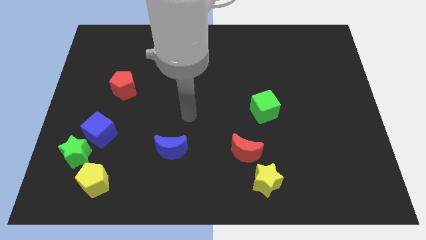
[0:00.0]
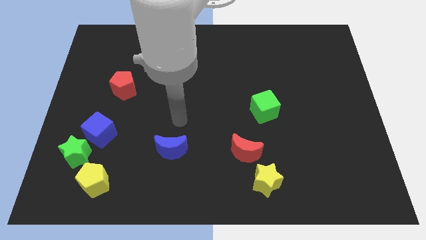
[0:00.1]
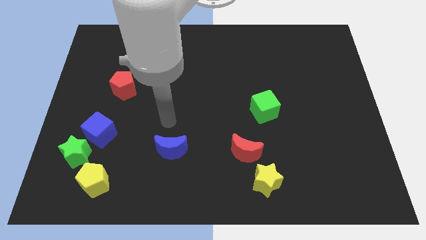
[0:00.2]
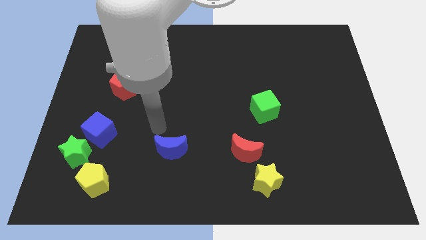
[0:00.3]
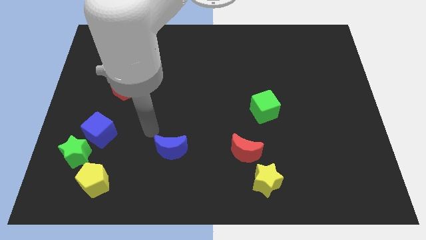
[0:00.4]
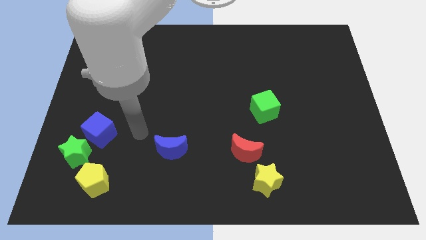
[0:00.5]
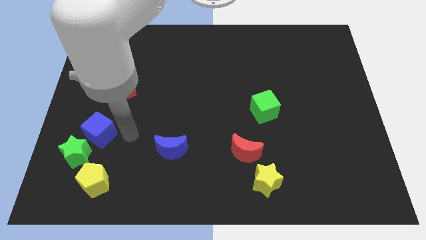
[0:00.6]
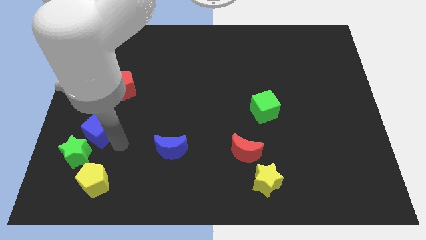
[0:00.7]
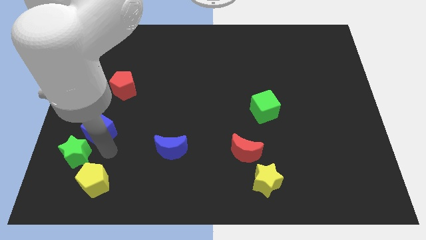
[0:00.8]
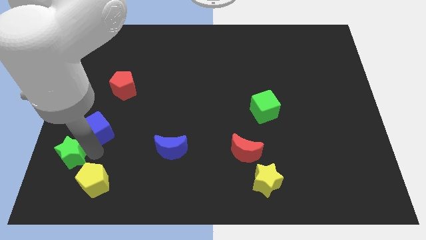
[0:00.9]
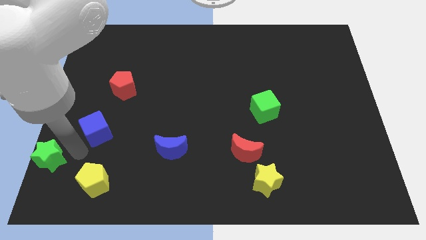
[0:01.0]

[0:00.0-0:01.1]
move the blue cube away from the green star

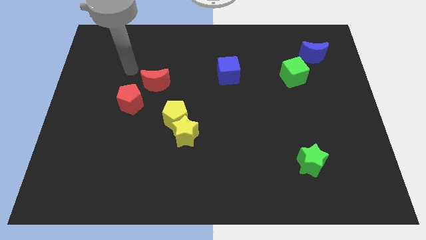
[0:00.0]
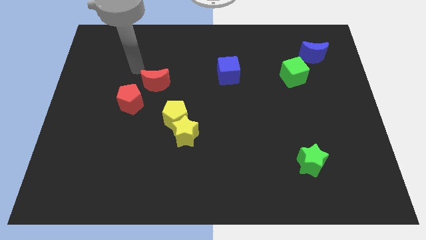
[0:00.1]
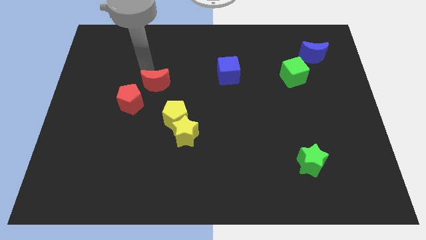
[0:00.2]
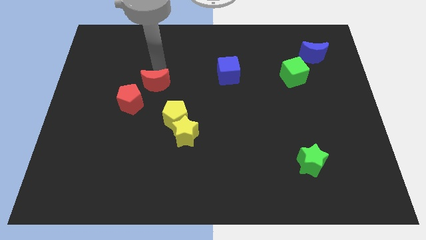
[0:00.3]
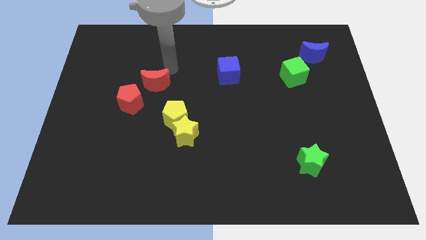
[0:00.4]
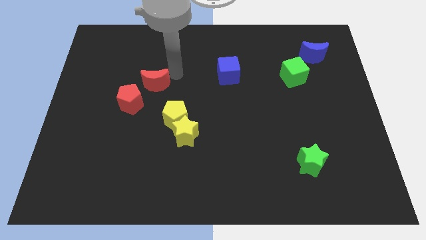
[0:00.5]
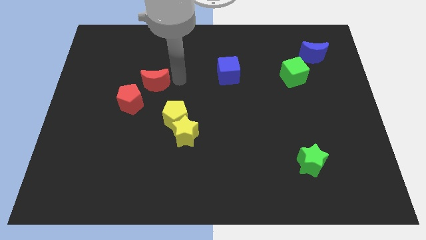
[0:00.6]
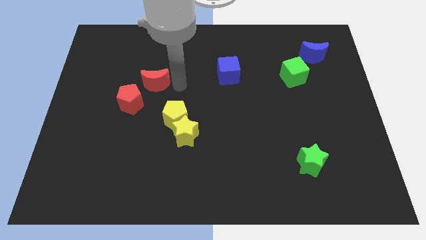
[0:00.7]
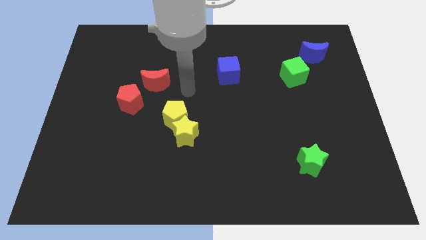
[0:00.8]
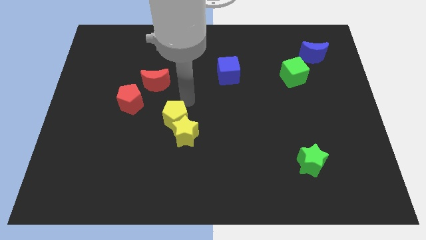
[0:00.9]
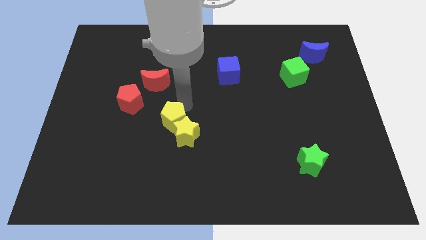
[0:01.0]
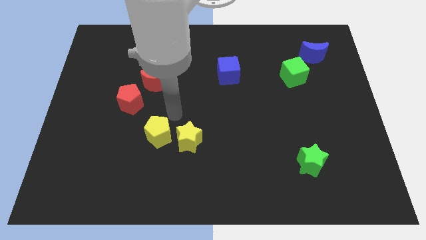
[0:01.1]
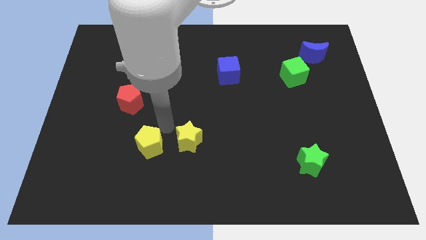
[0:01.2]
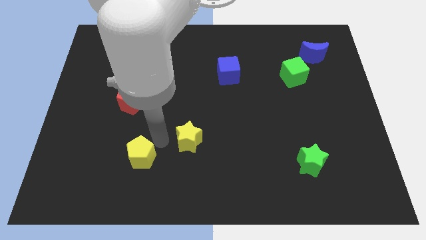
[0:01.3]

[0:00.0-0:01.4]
separate the yellow star from the yellow pentagon

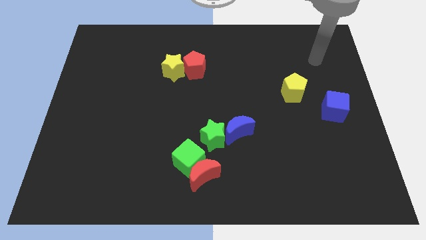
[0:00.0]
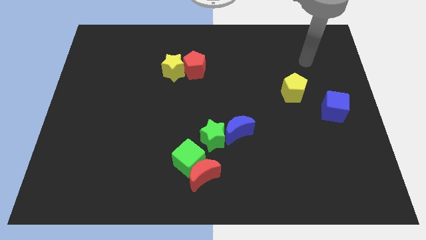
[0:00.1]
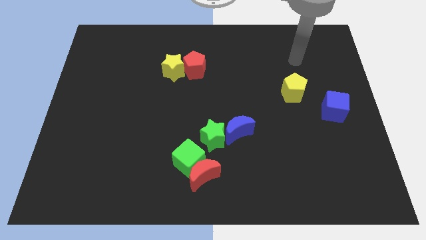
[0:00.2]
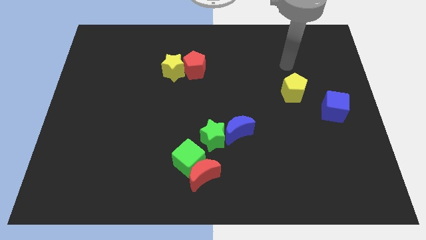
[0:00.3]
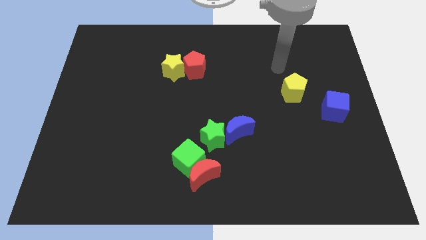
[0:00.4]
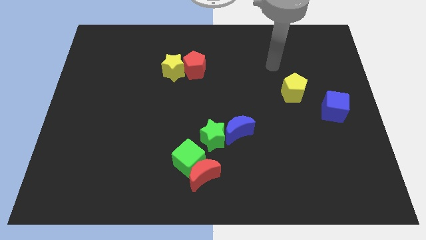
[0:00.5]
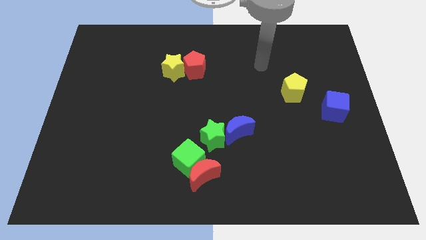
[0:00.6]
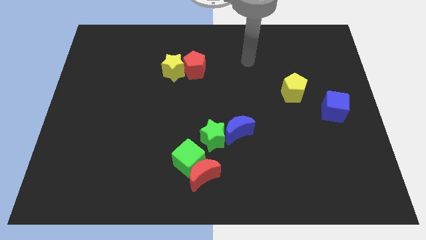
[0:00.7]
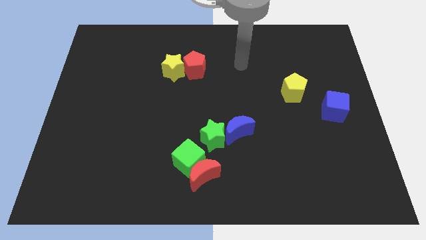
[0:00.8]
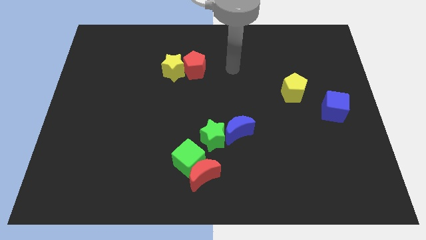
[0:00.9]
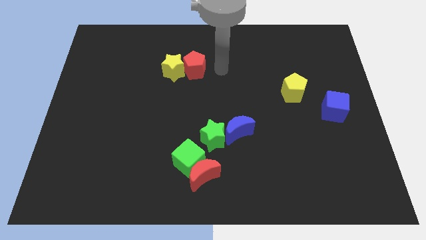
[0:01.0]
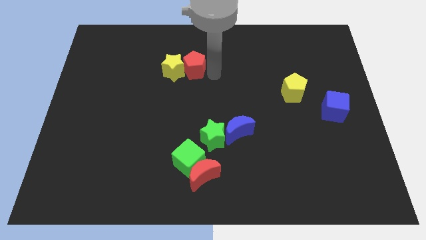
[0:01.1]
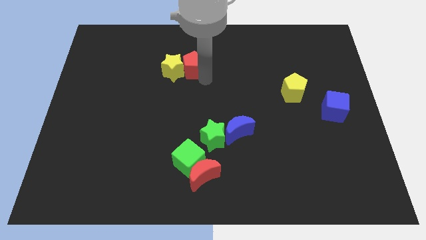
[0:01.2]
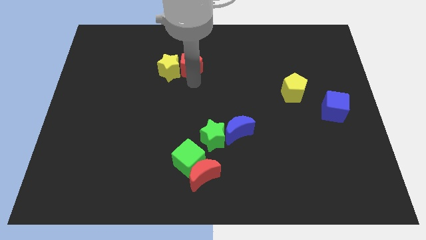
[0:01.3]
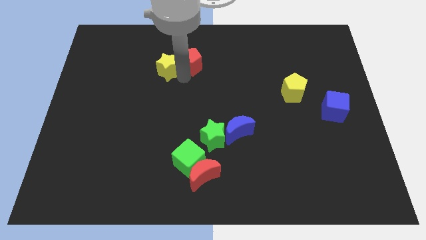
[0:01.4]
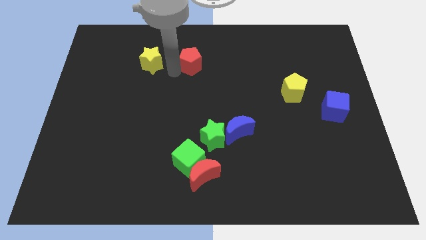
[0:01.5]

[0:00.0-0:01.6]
separate the red pentagon from the yellow star

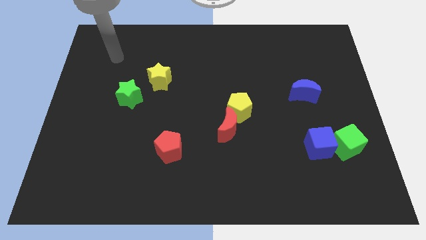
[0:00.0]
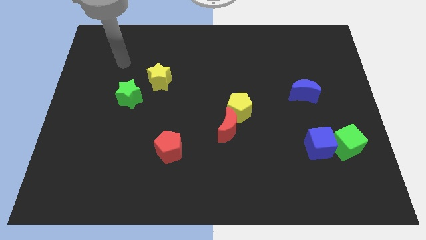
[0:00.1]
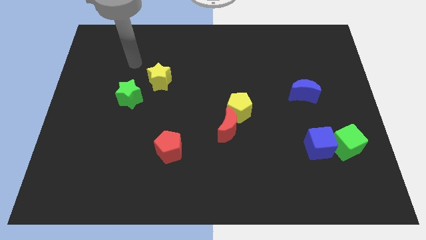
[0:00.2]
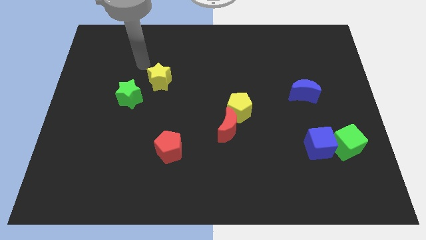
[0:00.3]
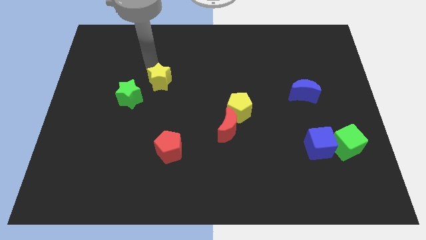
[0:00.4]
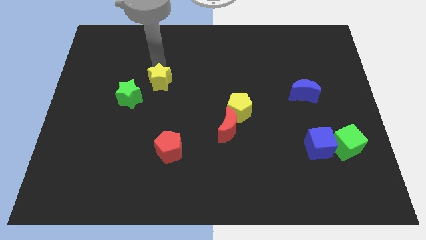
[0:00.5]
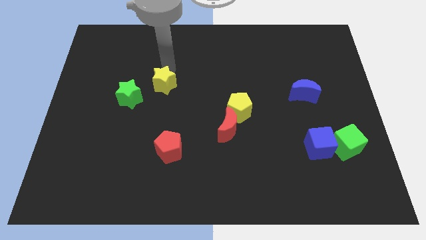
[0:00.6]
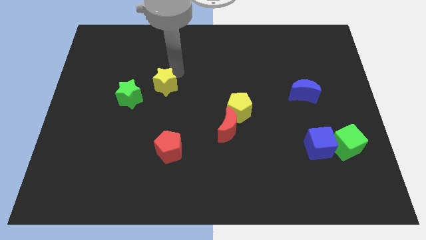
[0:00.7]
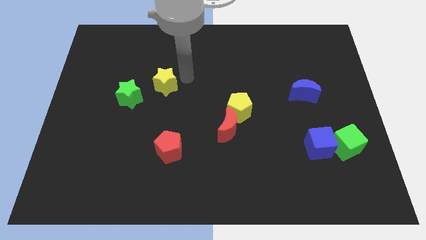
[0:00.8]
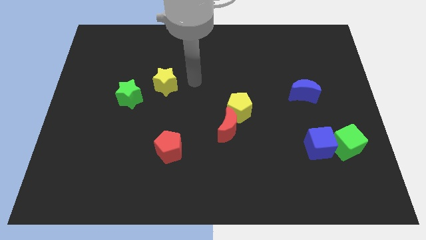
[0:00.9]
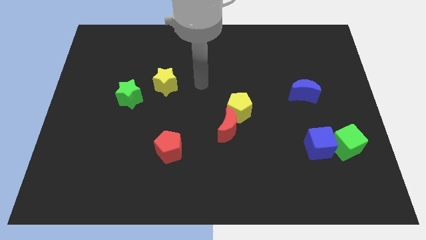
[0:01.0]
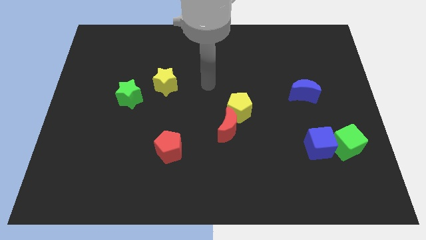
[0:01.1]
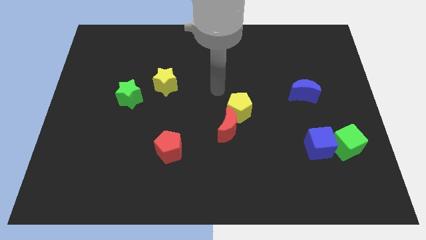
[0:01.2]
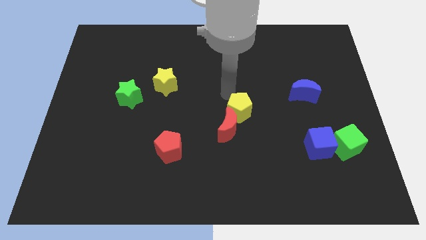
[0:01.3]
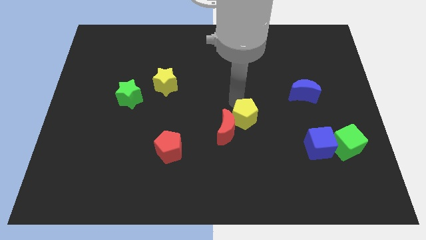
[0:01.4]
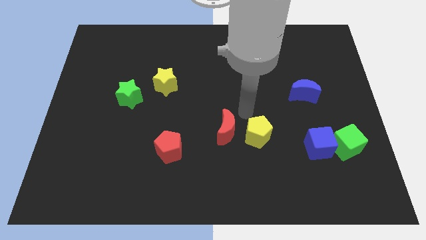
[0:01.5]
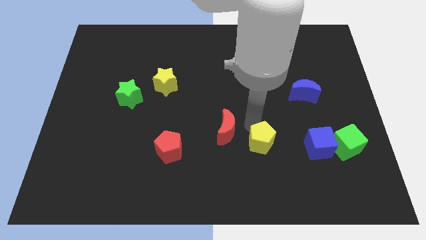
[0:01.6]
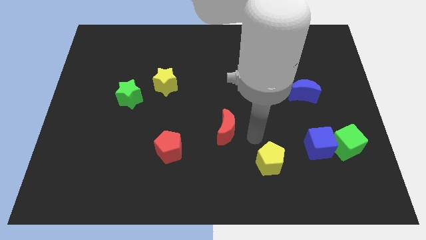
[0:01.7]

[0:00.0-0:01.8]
pull the red moon apart from the yellow pentagon

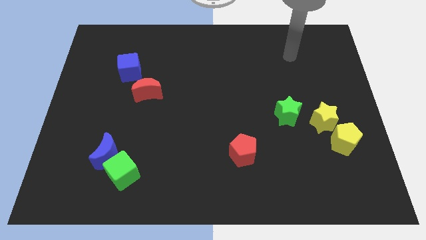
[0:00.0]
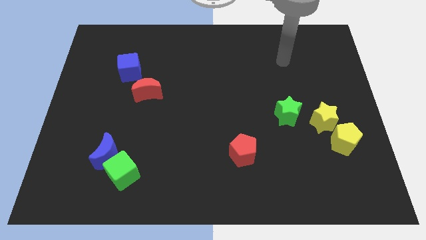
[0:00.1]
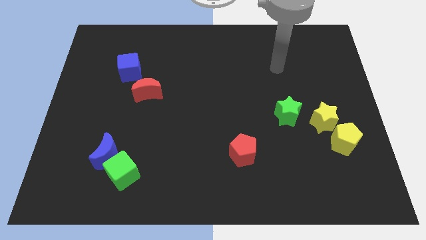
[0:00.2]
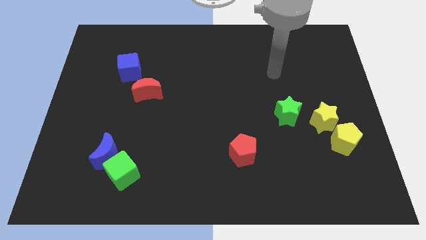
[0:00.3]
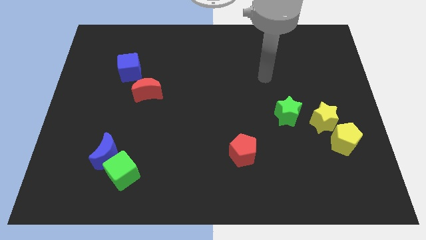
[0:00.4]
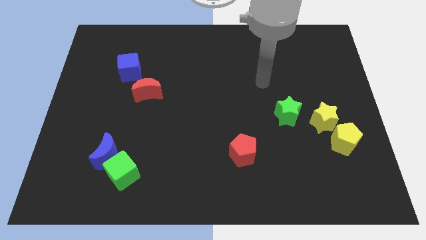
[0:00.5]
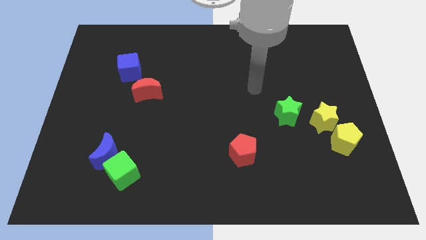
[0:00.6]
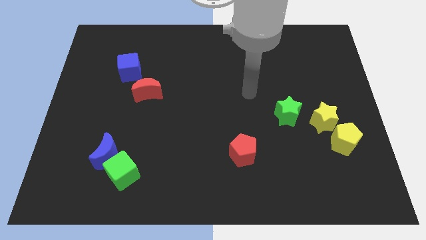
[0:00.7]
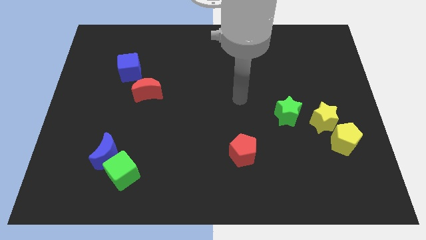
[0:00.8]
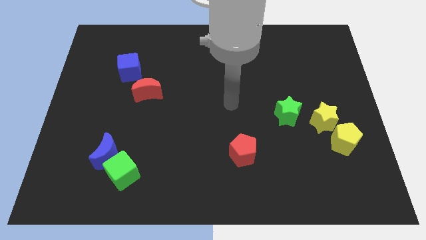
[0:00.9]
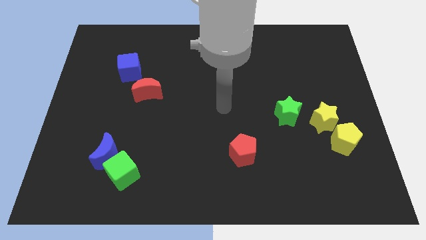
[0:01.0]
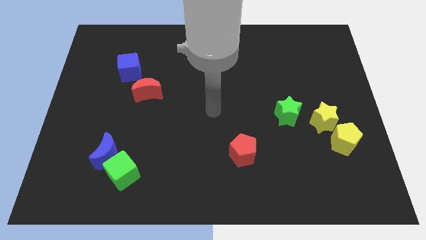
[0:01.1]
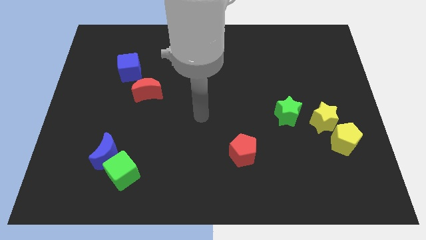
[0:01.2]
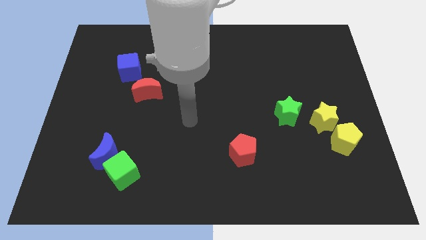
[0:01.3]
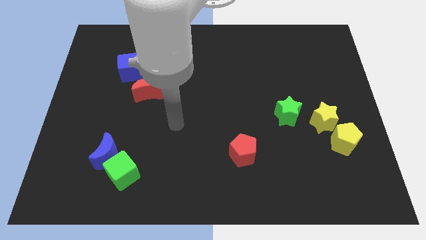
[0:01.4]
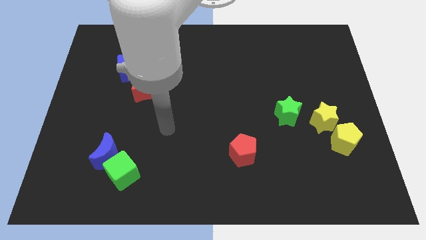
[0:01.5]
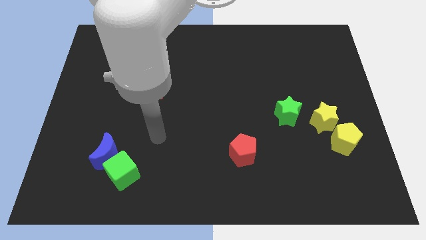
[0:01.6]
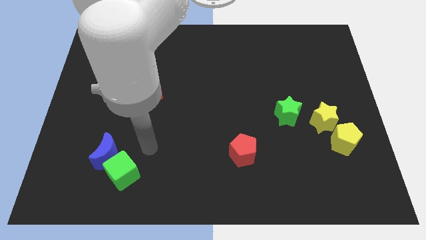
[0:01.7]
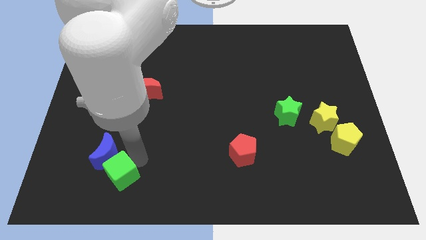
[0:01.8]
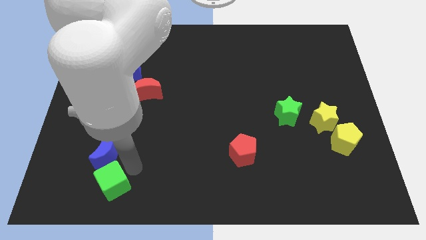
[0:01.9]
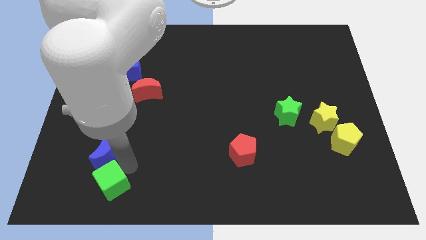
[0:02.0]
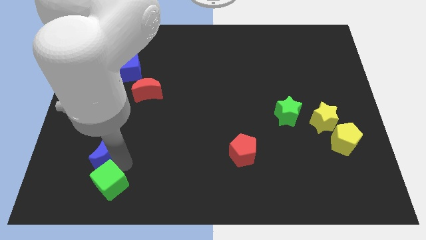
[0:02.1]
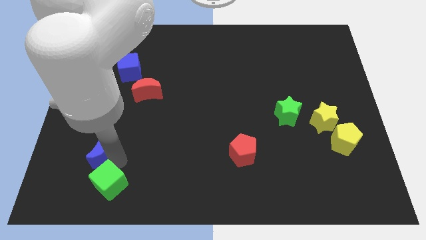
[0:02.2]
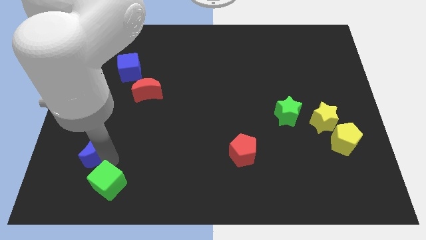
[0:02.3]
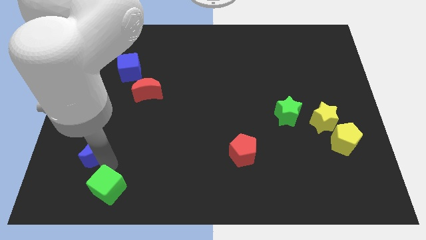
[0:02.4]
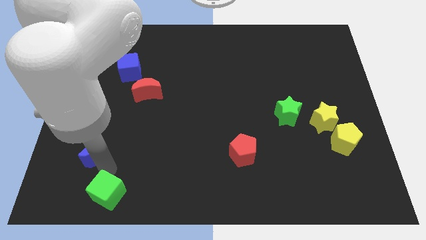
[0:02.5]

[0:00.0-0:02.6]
move the blue moon away from the green cube

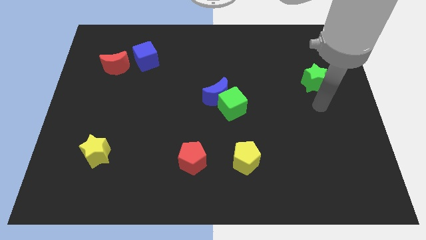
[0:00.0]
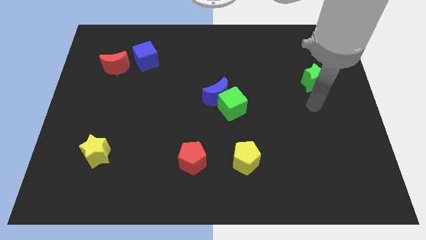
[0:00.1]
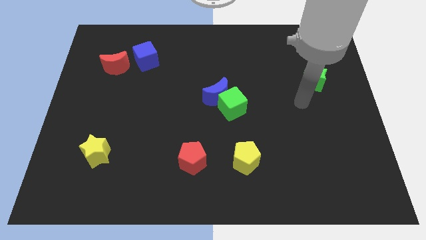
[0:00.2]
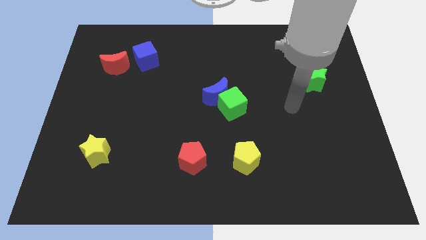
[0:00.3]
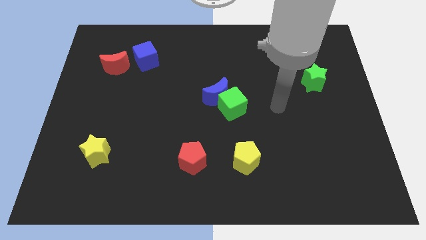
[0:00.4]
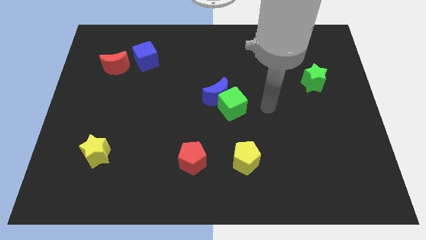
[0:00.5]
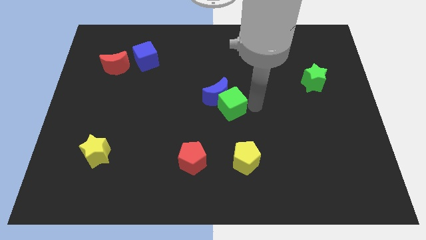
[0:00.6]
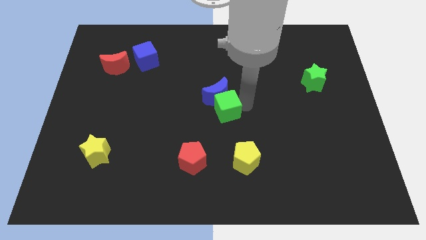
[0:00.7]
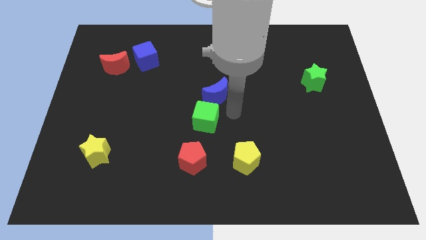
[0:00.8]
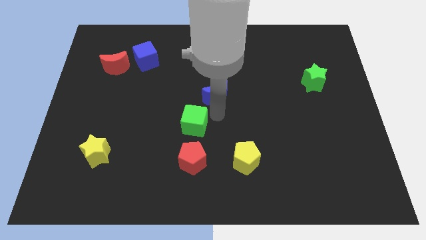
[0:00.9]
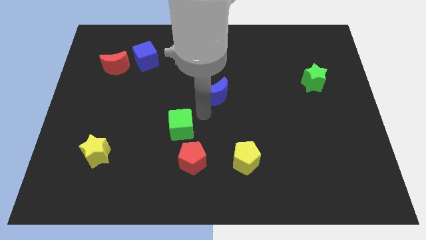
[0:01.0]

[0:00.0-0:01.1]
separate the blue moon from the green cube
